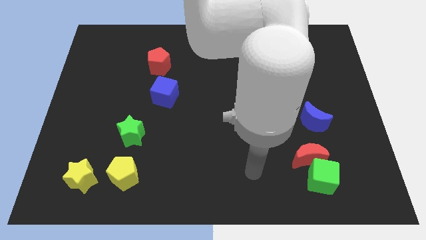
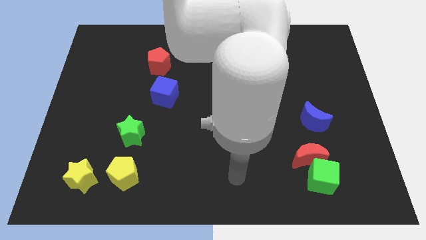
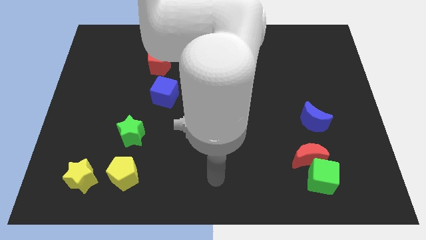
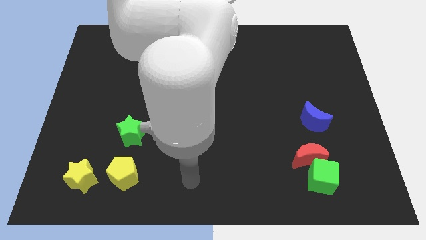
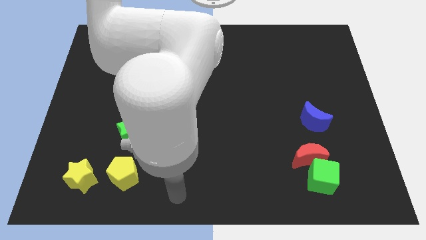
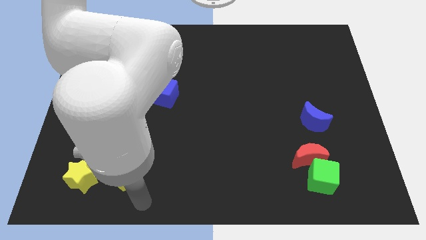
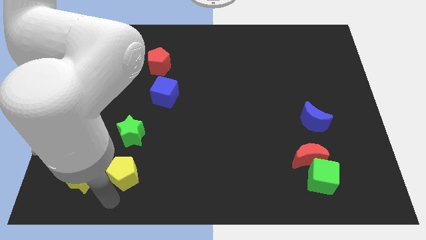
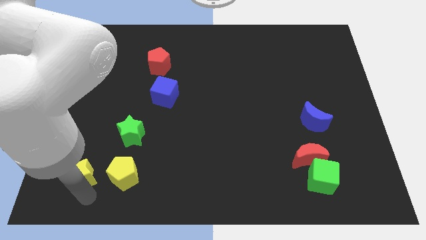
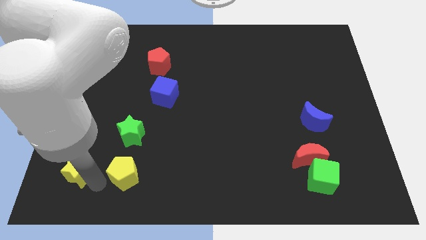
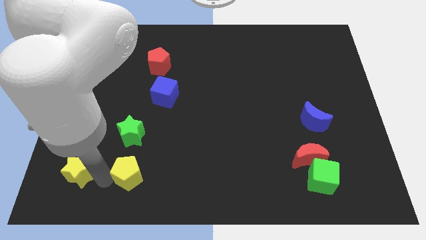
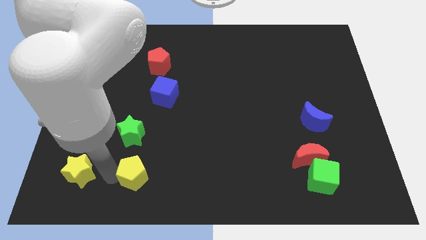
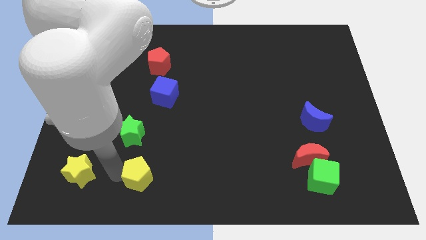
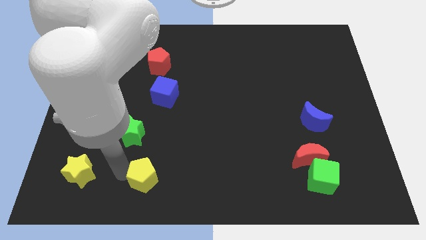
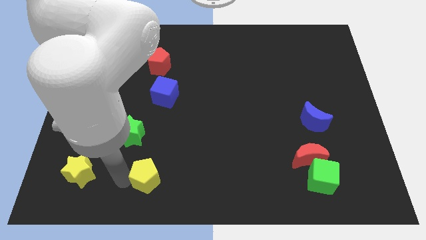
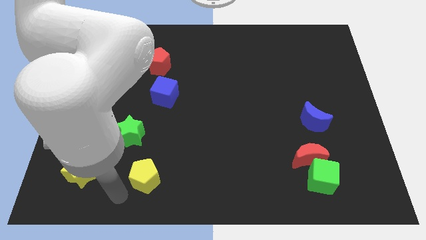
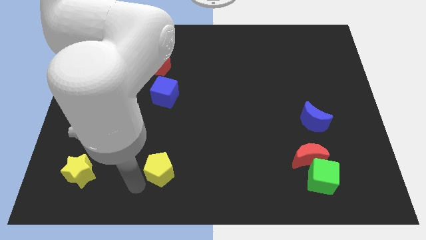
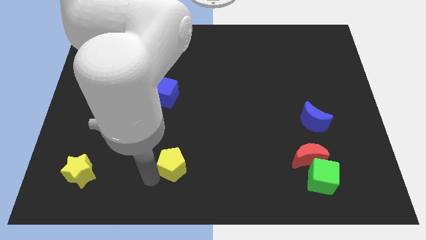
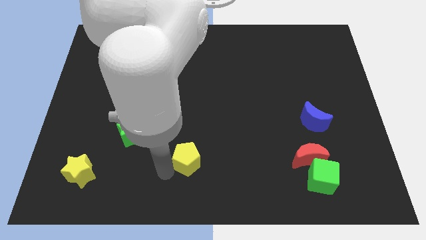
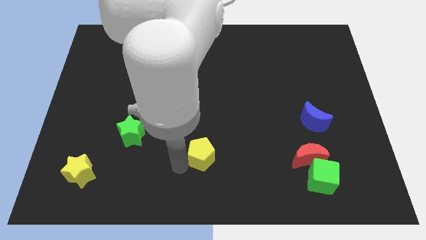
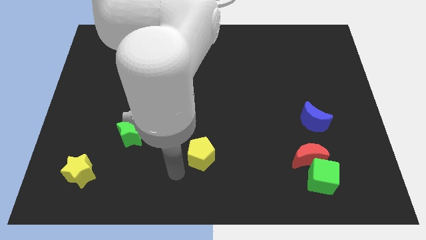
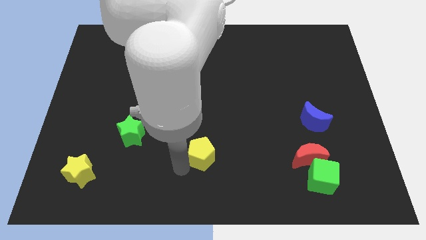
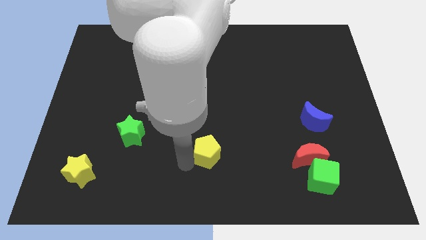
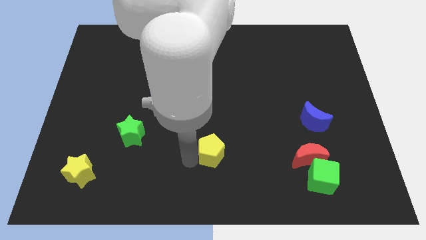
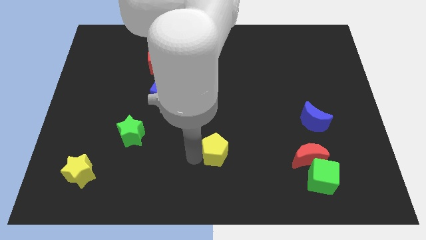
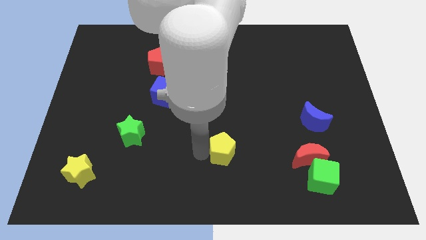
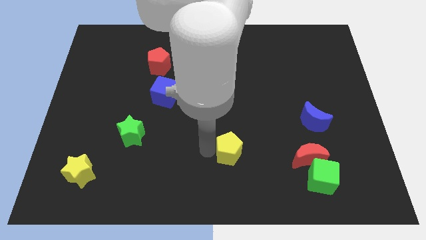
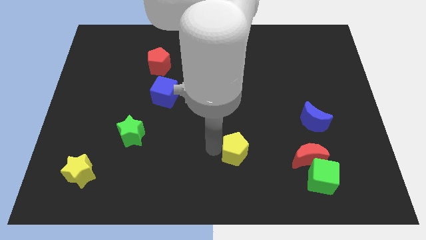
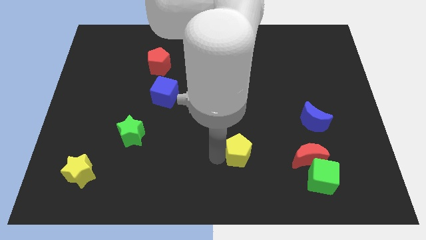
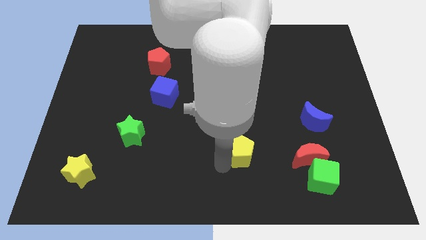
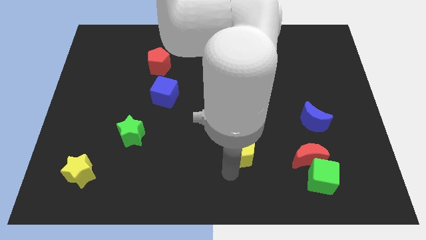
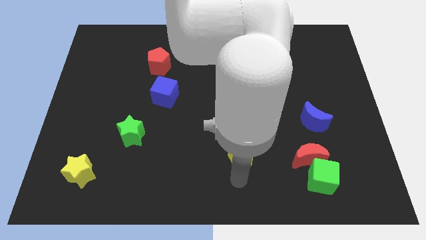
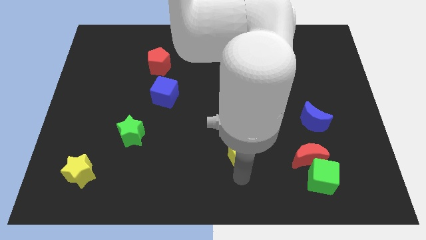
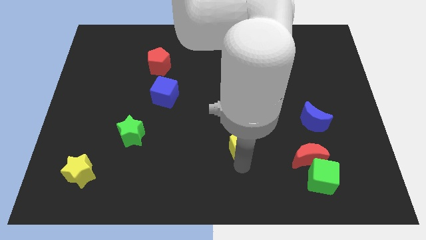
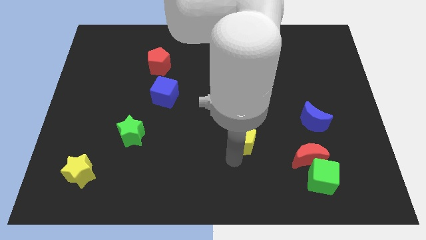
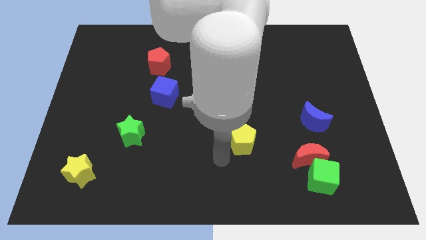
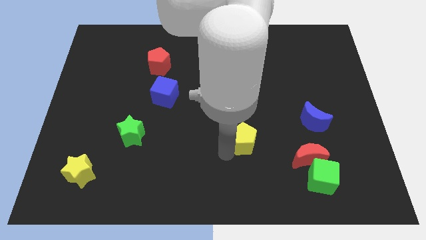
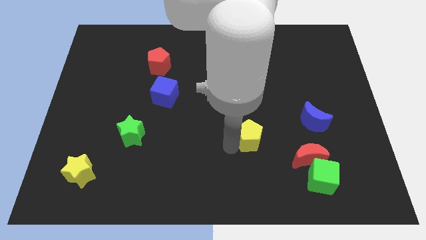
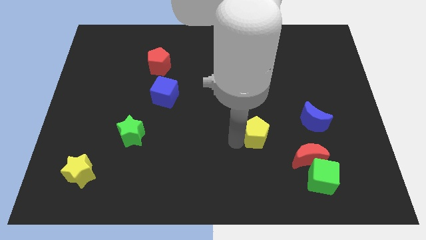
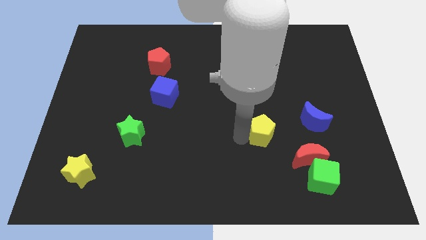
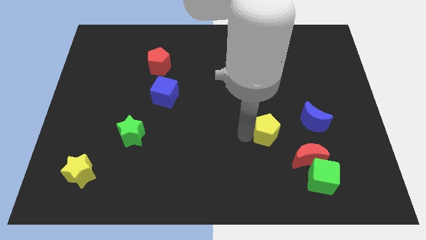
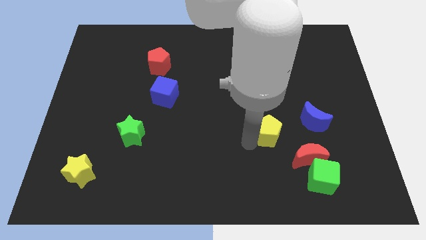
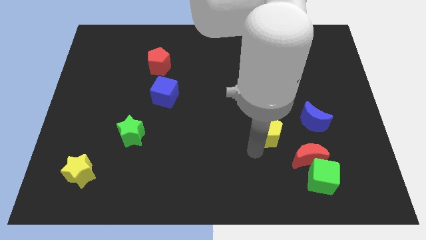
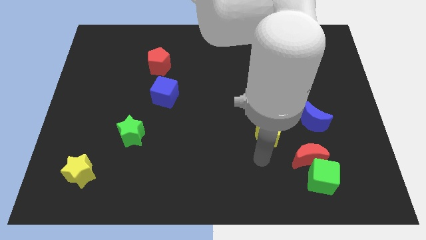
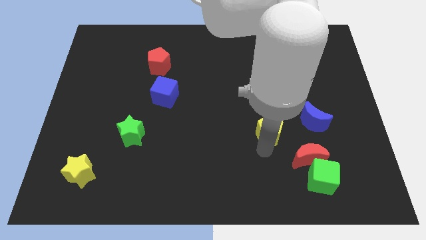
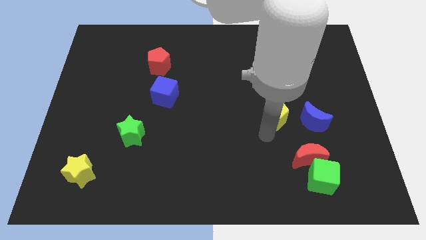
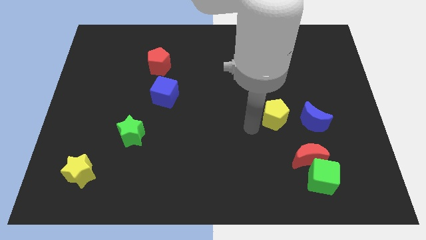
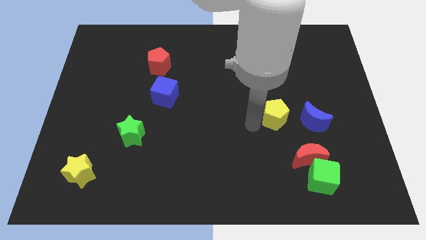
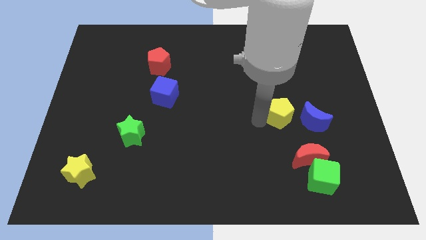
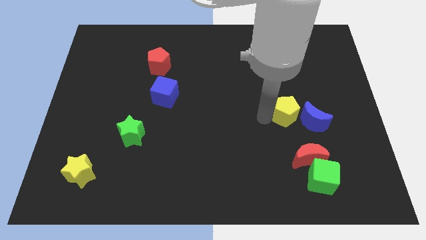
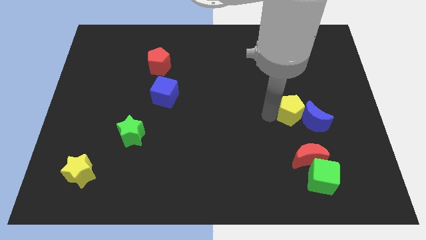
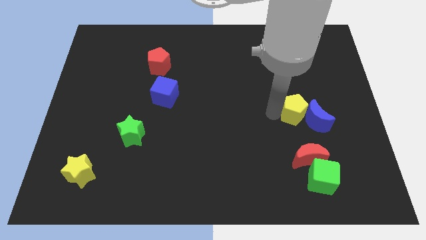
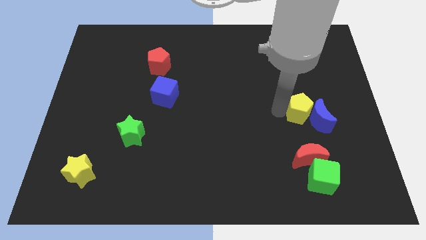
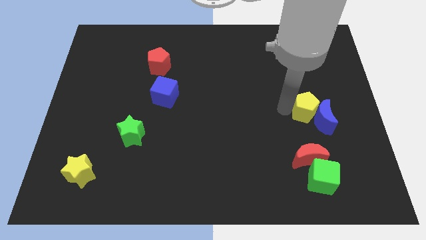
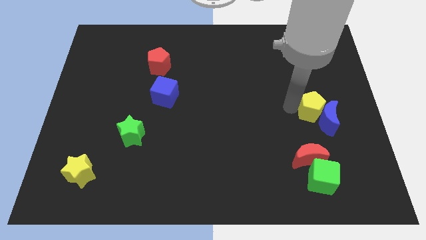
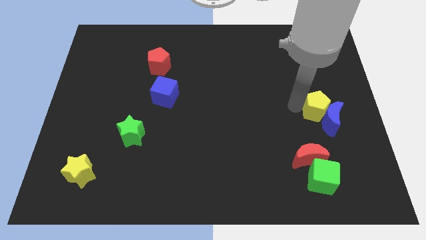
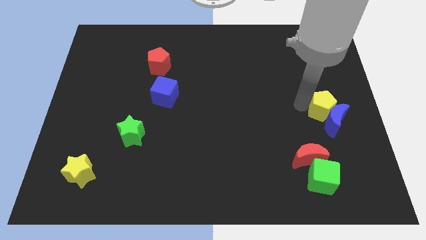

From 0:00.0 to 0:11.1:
push the yellow pentagon to the right side of the board
